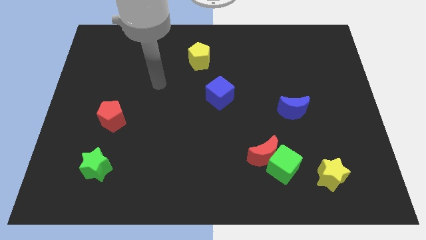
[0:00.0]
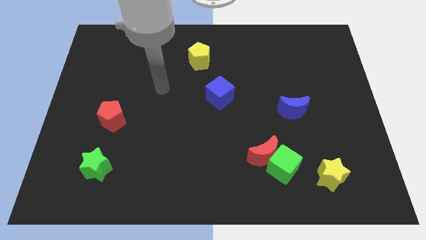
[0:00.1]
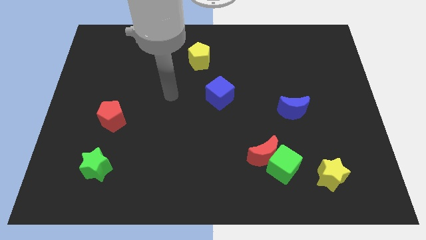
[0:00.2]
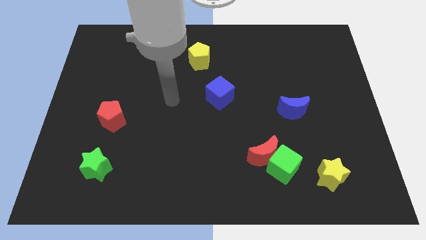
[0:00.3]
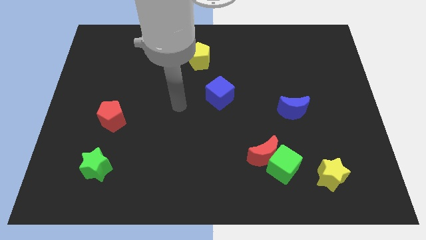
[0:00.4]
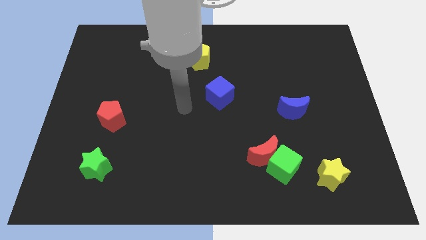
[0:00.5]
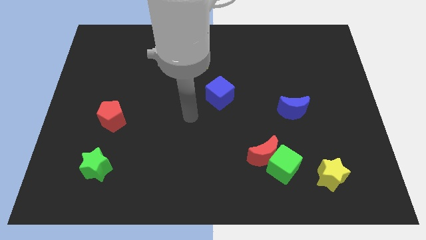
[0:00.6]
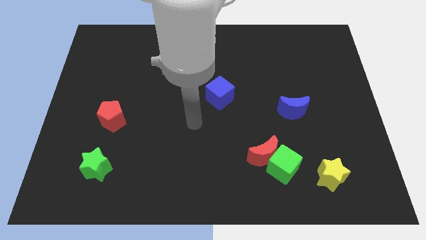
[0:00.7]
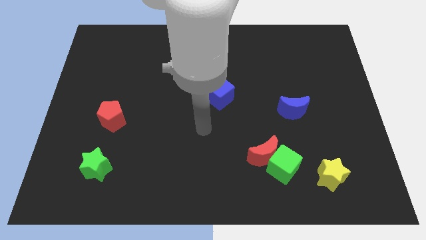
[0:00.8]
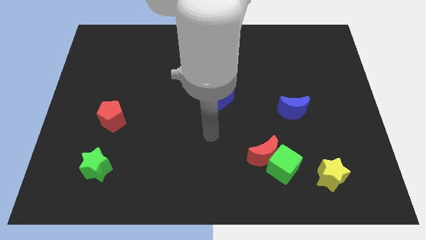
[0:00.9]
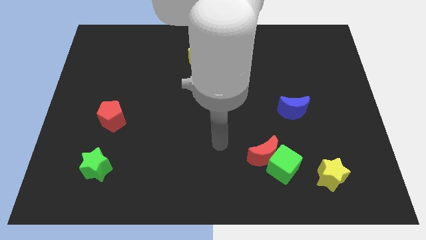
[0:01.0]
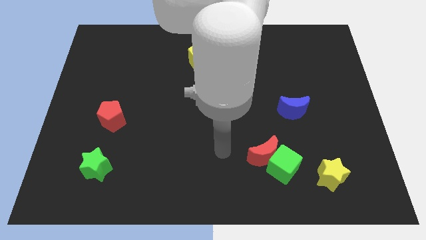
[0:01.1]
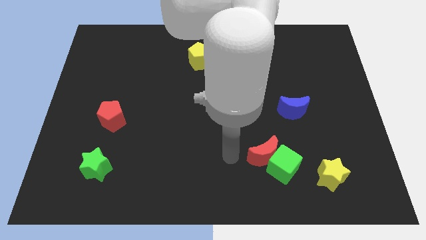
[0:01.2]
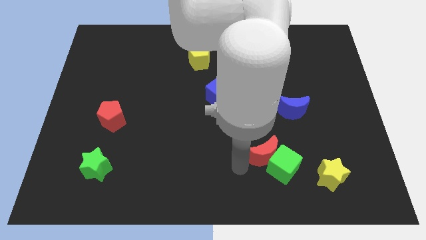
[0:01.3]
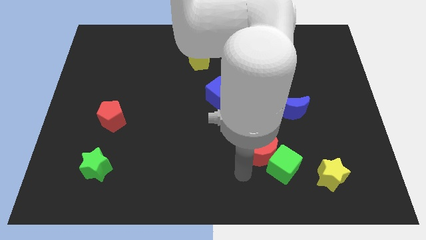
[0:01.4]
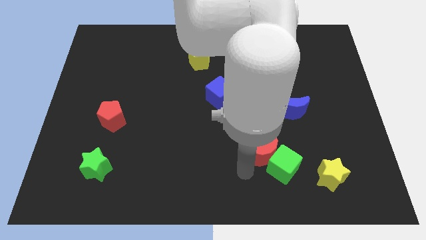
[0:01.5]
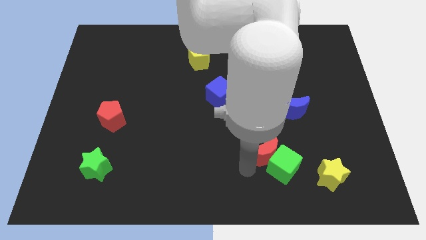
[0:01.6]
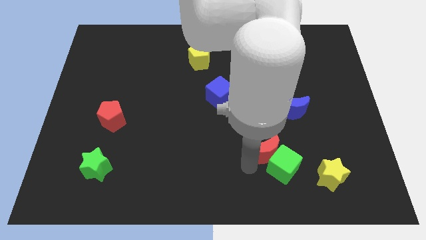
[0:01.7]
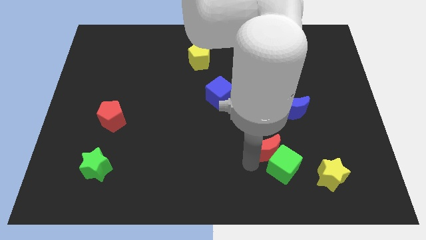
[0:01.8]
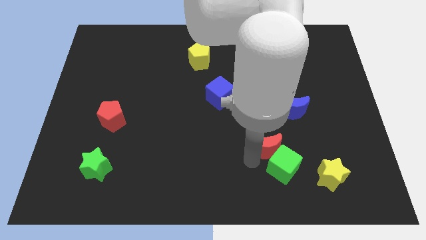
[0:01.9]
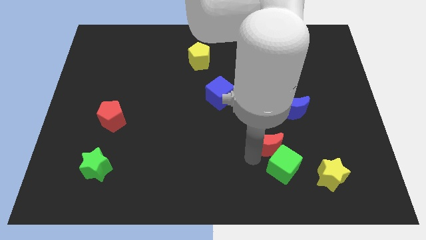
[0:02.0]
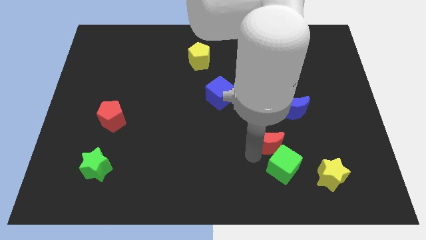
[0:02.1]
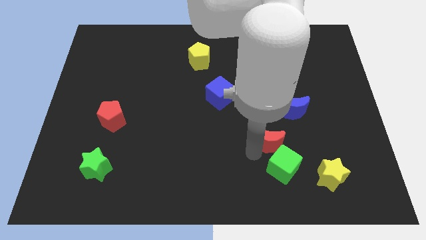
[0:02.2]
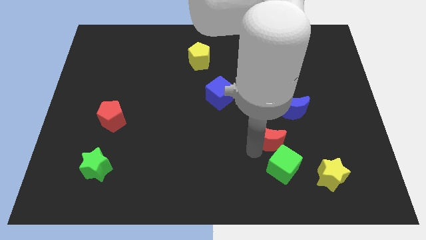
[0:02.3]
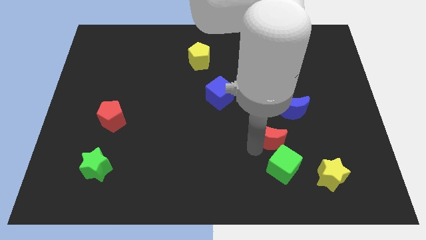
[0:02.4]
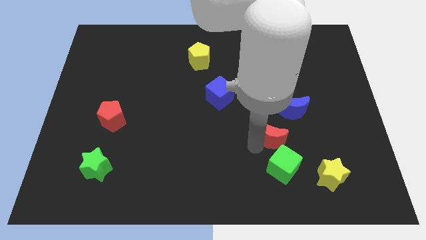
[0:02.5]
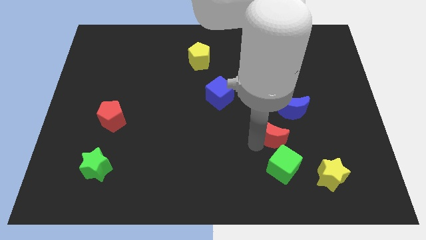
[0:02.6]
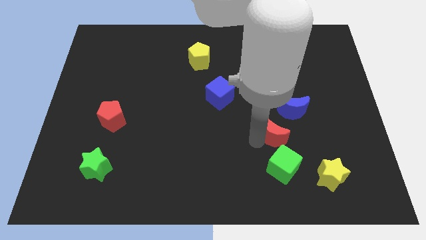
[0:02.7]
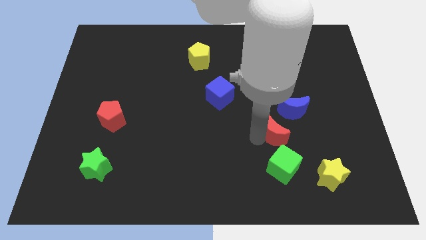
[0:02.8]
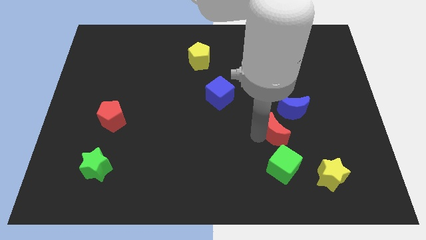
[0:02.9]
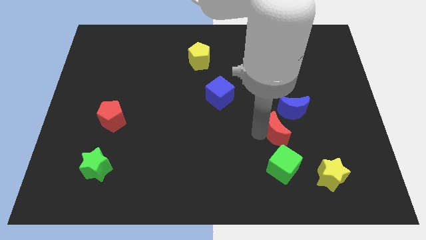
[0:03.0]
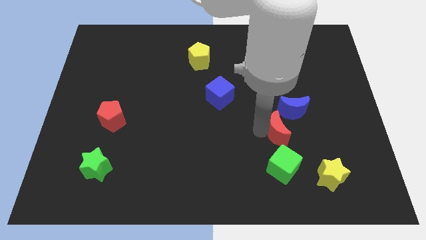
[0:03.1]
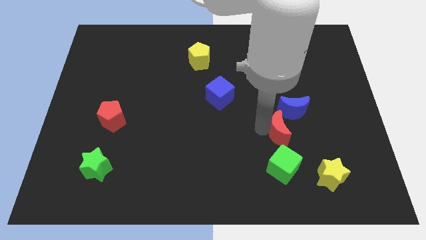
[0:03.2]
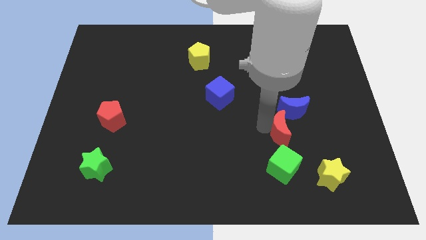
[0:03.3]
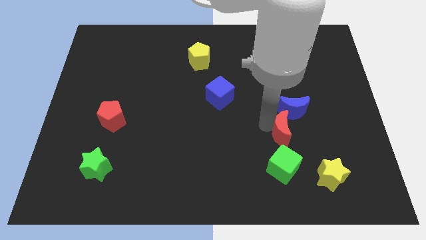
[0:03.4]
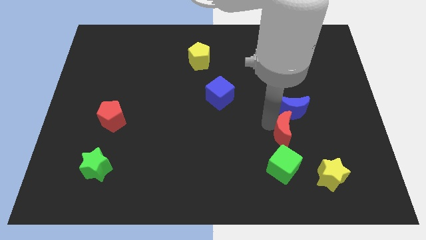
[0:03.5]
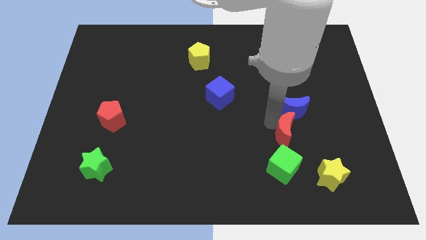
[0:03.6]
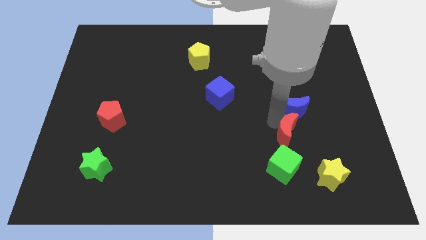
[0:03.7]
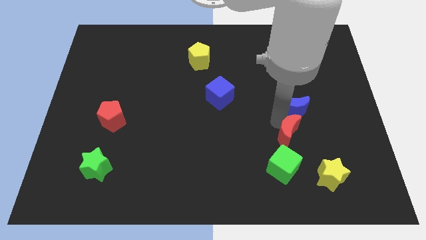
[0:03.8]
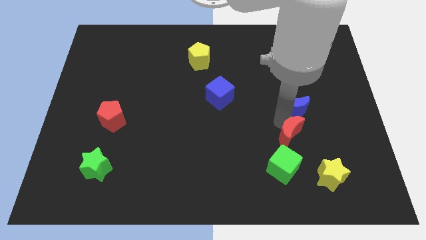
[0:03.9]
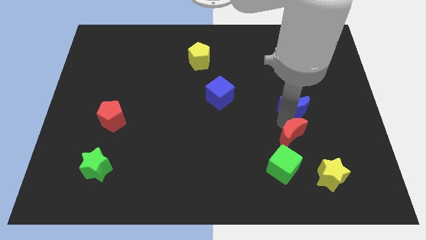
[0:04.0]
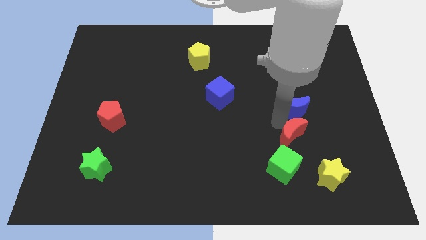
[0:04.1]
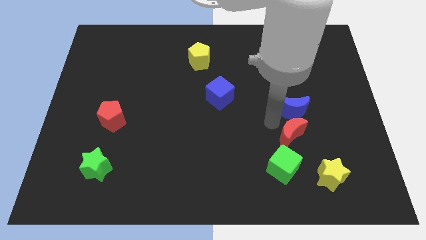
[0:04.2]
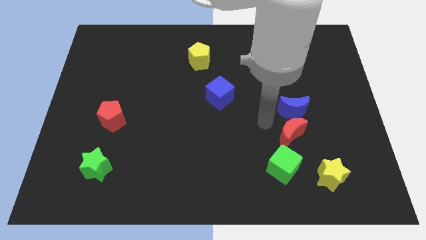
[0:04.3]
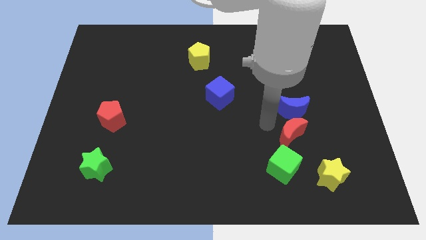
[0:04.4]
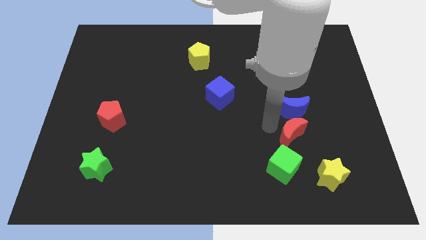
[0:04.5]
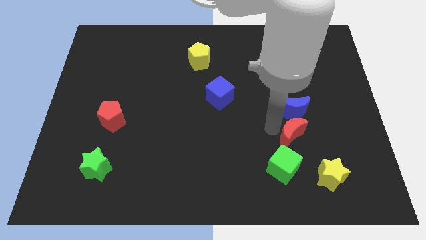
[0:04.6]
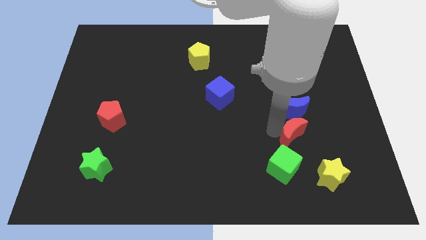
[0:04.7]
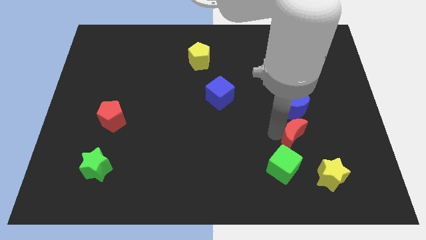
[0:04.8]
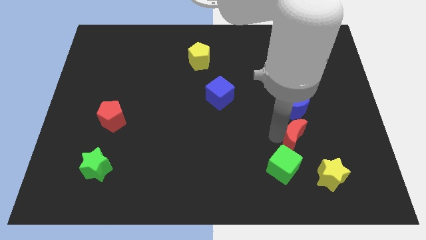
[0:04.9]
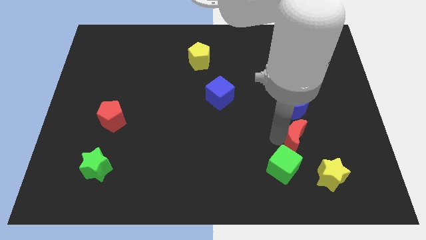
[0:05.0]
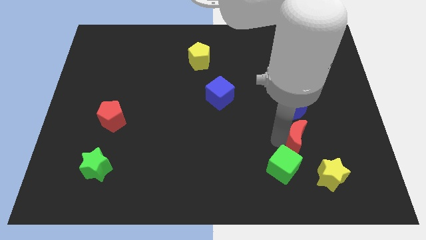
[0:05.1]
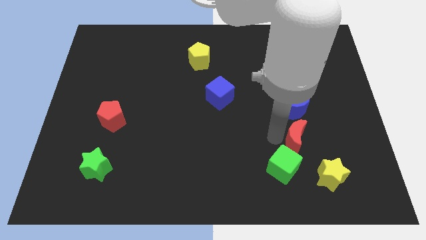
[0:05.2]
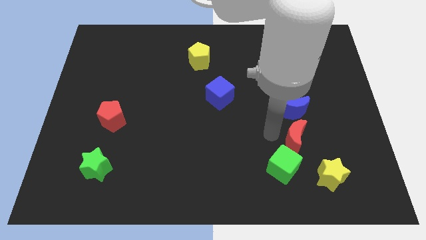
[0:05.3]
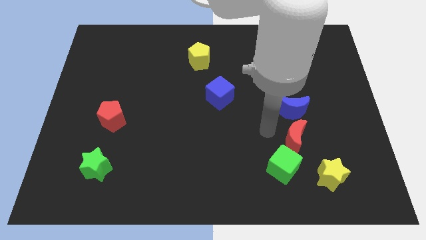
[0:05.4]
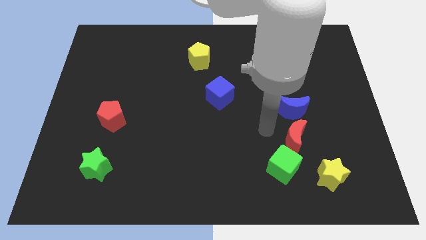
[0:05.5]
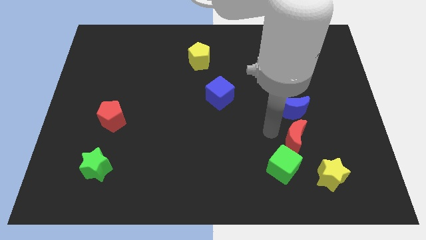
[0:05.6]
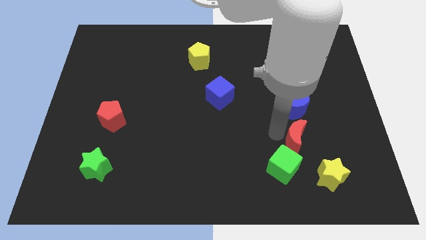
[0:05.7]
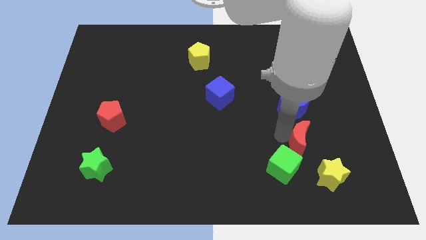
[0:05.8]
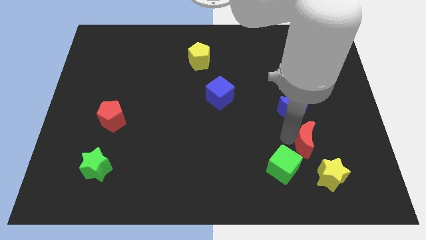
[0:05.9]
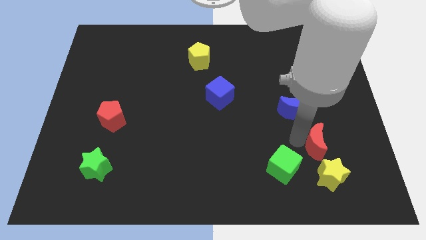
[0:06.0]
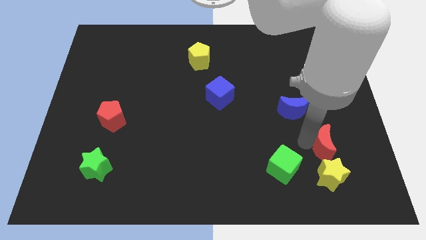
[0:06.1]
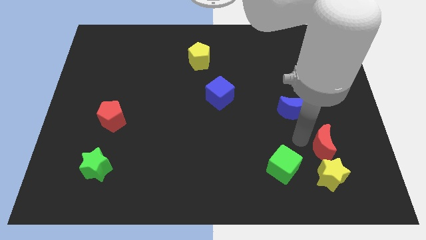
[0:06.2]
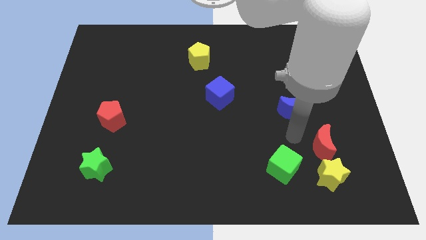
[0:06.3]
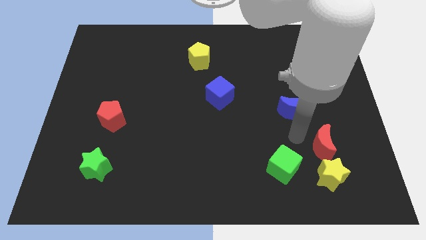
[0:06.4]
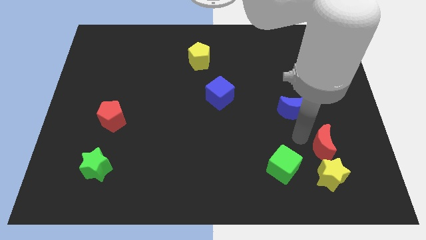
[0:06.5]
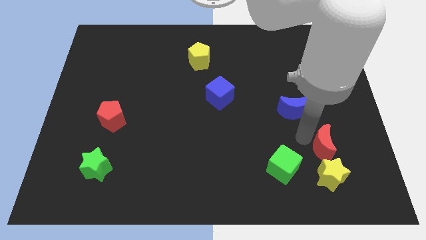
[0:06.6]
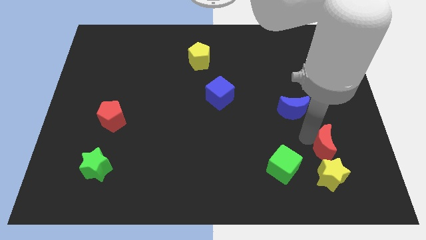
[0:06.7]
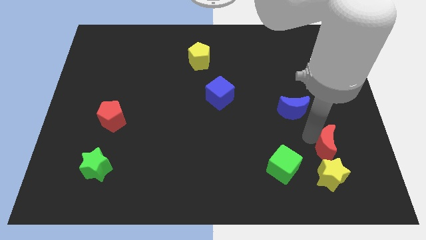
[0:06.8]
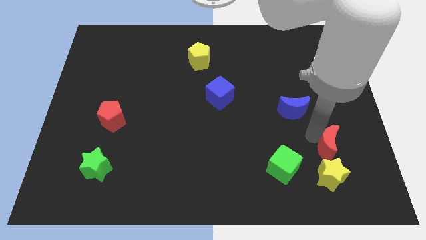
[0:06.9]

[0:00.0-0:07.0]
move the red moon to the top right side of the yellow star
